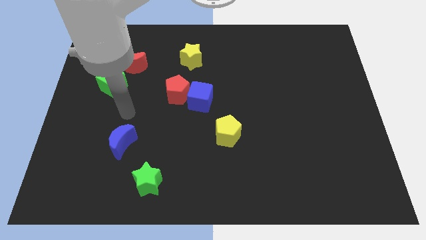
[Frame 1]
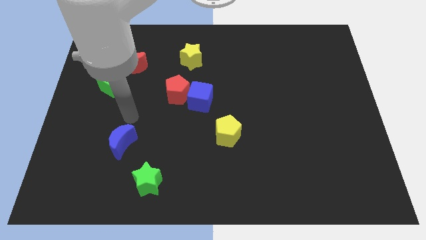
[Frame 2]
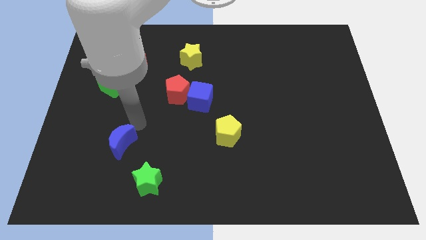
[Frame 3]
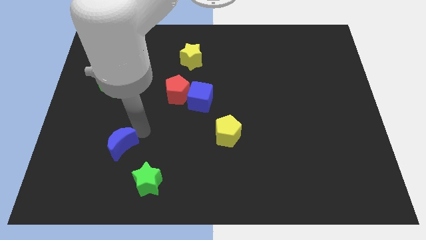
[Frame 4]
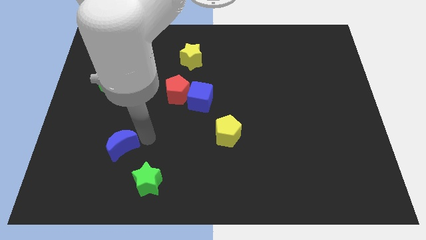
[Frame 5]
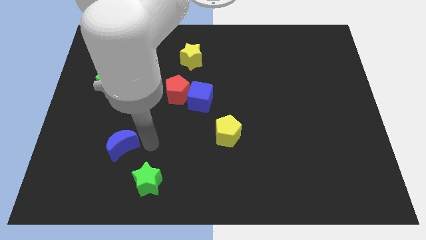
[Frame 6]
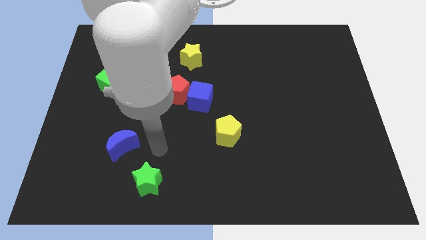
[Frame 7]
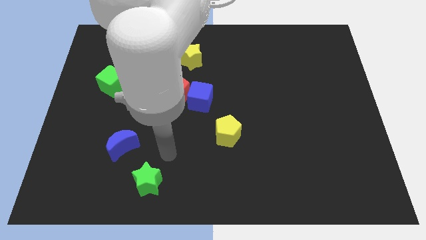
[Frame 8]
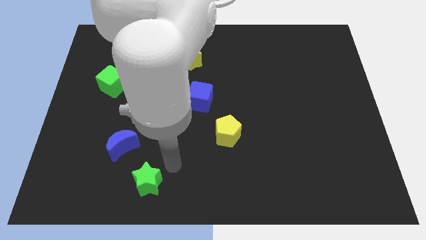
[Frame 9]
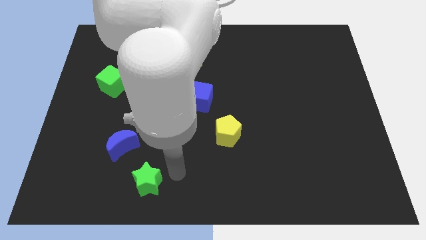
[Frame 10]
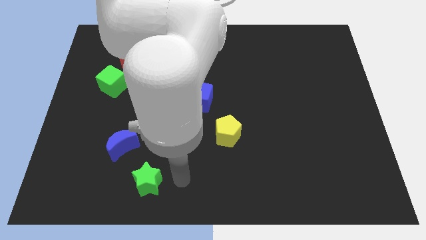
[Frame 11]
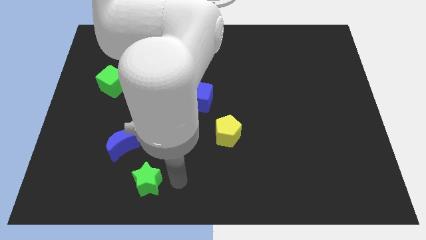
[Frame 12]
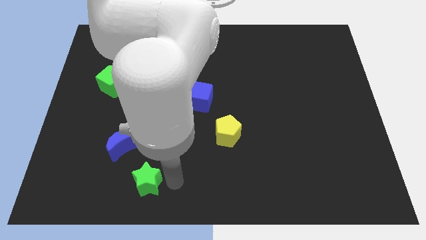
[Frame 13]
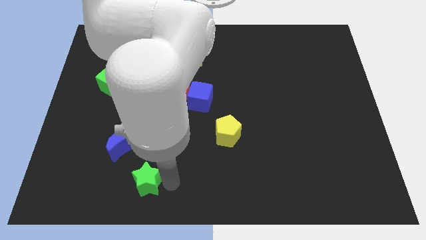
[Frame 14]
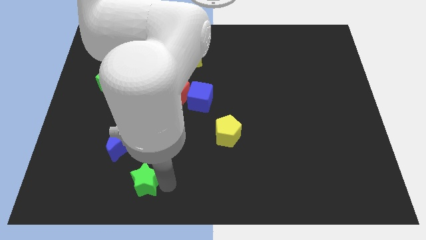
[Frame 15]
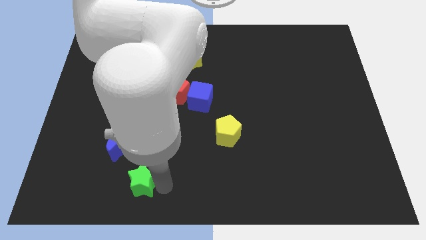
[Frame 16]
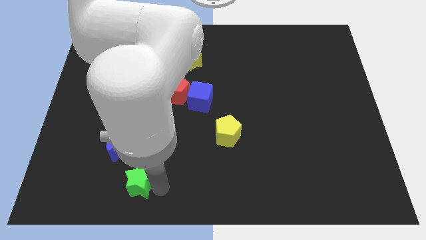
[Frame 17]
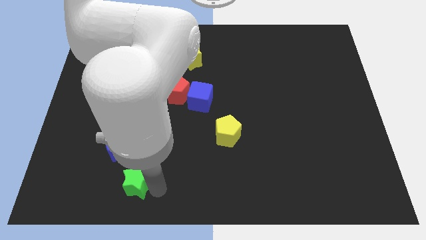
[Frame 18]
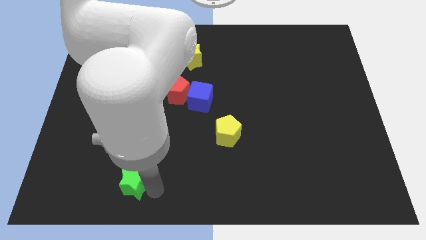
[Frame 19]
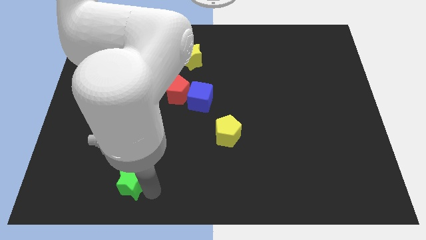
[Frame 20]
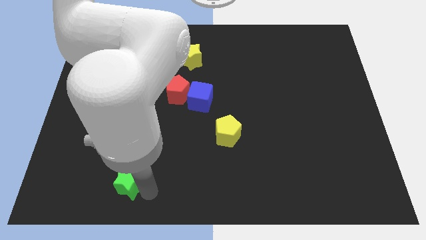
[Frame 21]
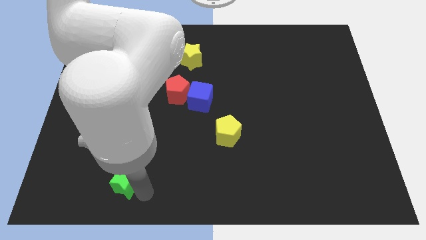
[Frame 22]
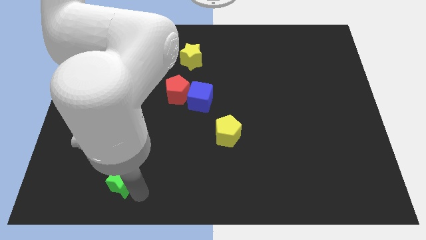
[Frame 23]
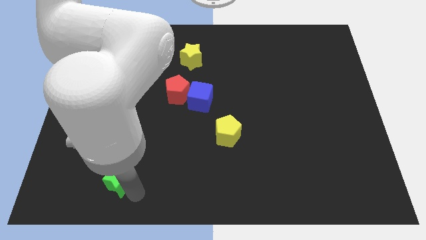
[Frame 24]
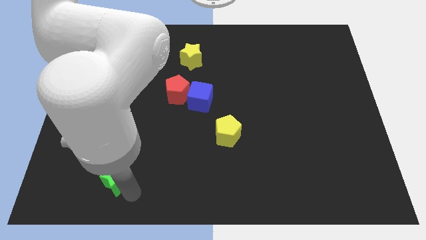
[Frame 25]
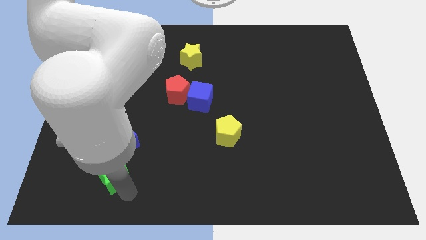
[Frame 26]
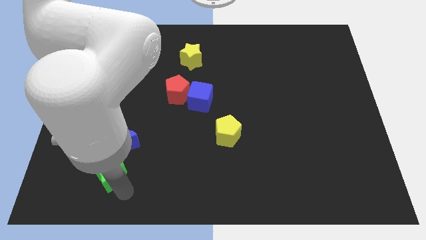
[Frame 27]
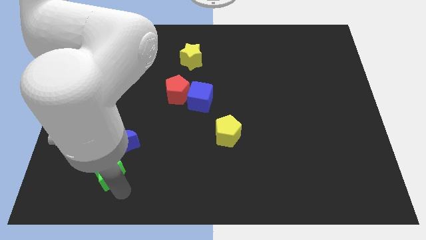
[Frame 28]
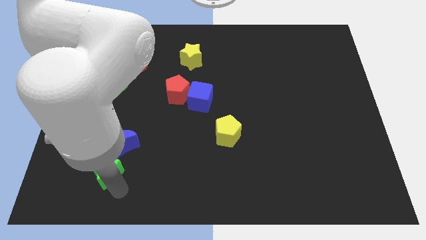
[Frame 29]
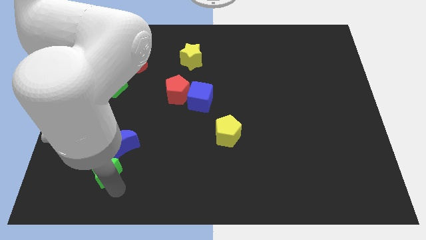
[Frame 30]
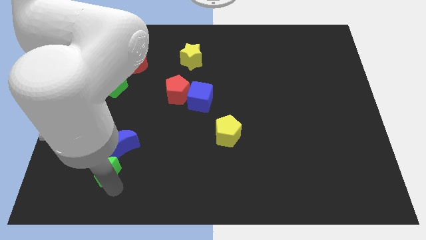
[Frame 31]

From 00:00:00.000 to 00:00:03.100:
slide the green star a little up and then to the left

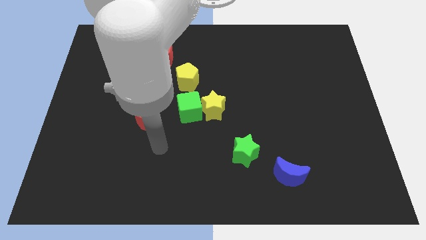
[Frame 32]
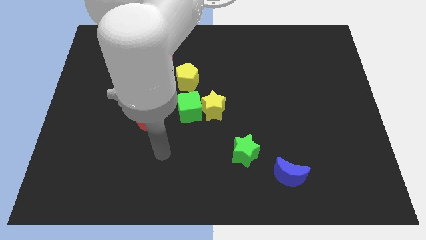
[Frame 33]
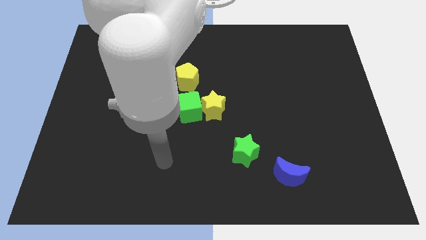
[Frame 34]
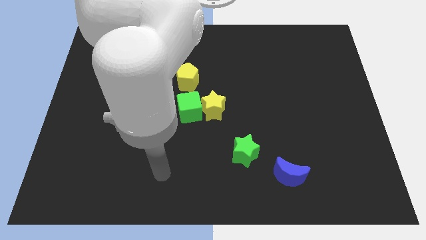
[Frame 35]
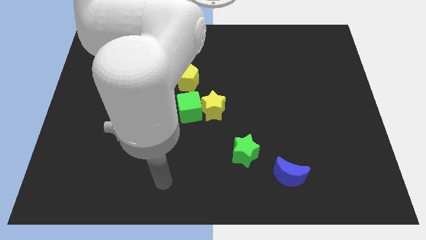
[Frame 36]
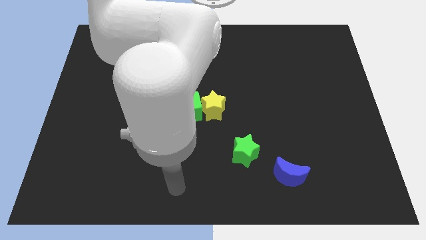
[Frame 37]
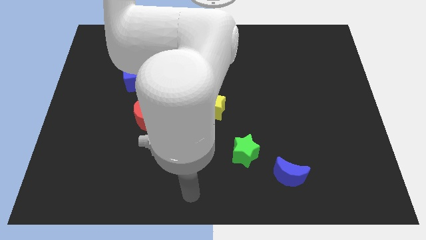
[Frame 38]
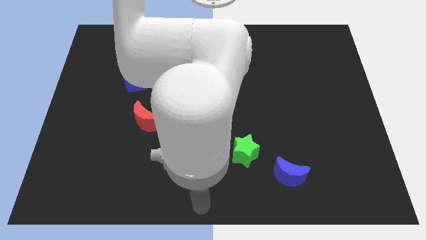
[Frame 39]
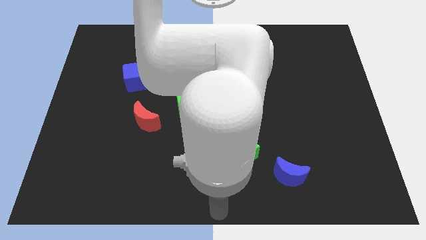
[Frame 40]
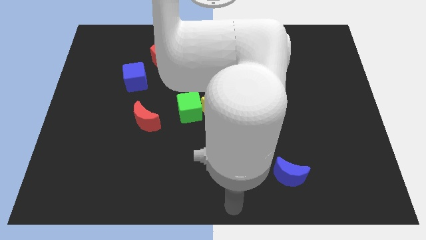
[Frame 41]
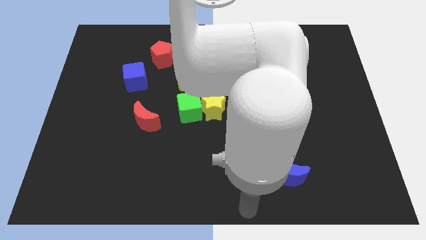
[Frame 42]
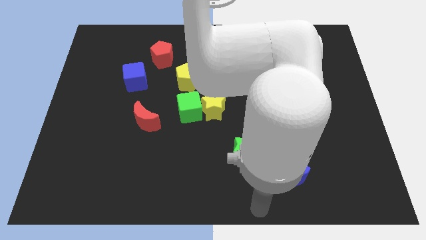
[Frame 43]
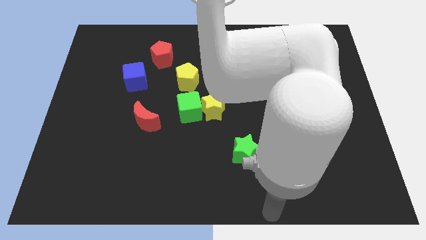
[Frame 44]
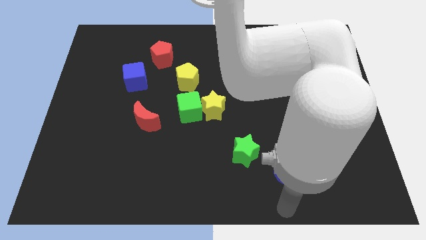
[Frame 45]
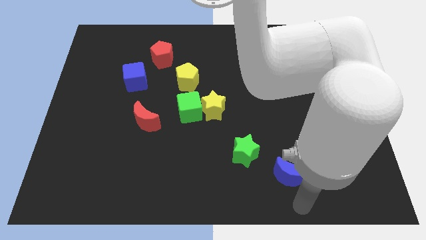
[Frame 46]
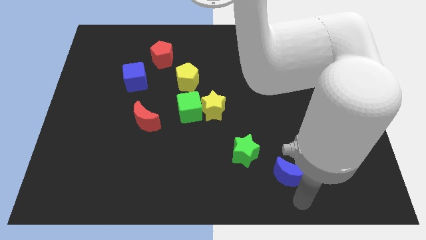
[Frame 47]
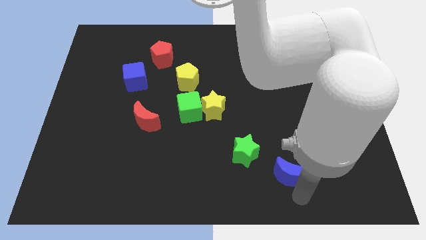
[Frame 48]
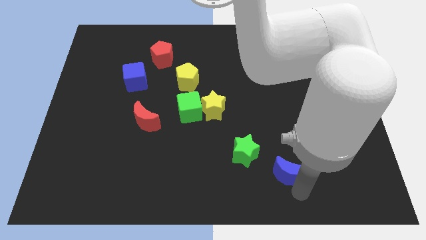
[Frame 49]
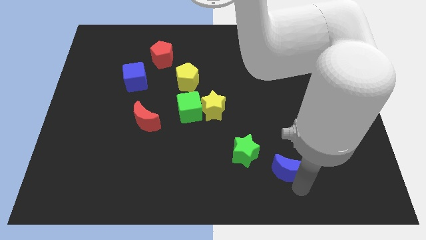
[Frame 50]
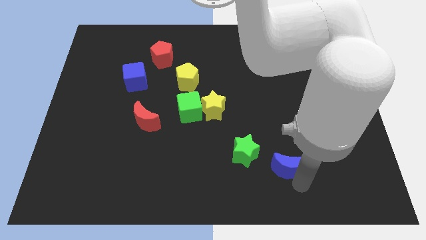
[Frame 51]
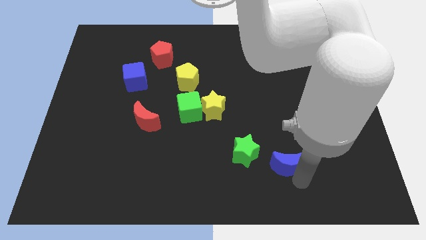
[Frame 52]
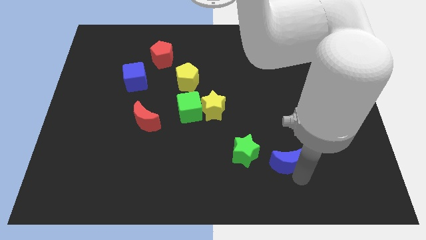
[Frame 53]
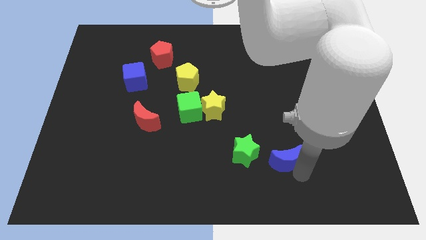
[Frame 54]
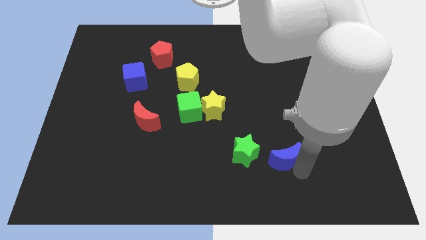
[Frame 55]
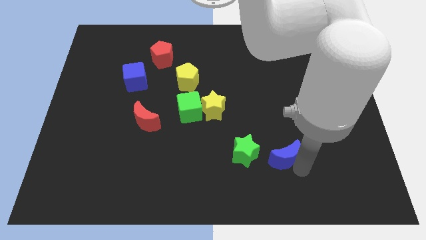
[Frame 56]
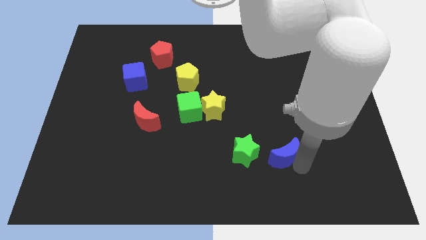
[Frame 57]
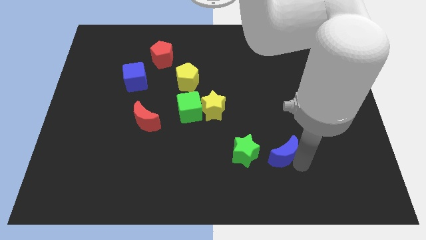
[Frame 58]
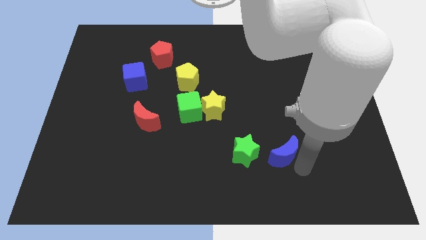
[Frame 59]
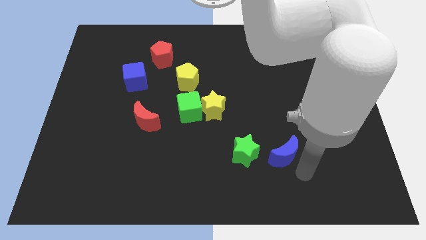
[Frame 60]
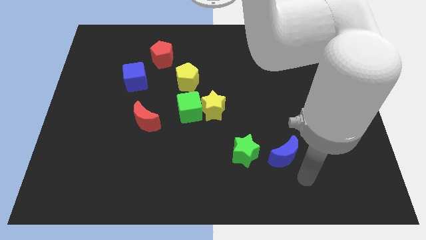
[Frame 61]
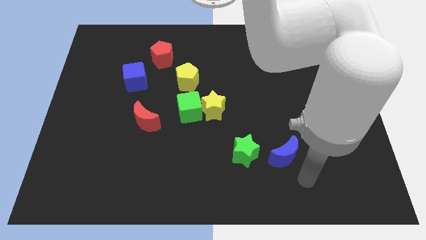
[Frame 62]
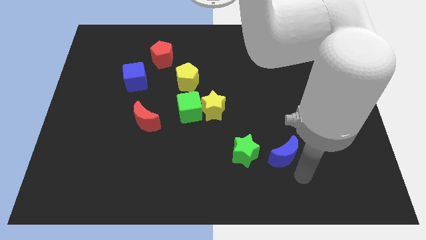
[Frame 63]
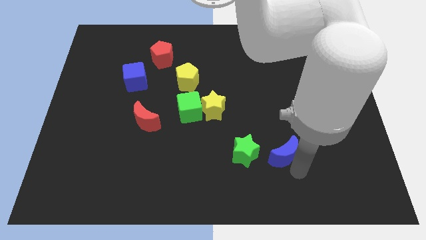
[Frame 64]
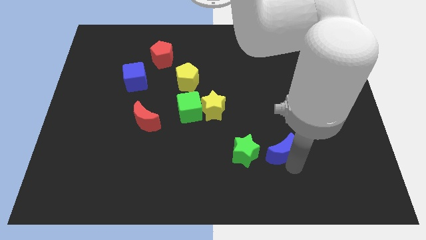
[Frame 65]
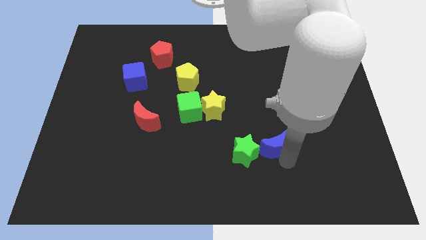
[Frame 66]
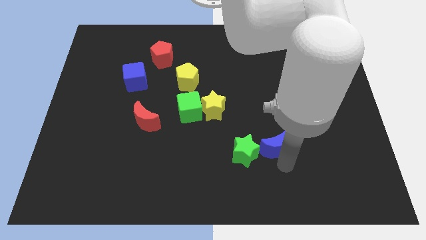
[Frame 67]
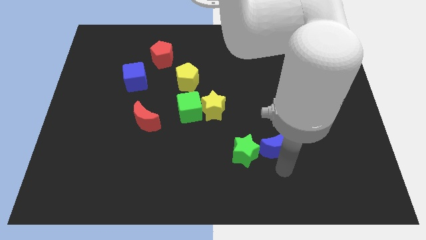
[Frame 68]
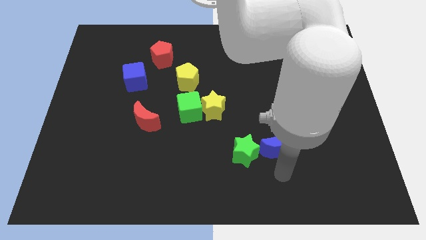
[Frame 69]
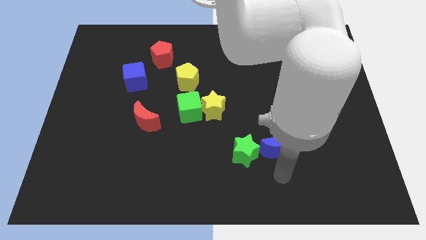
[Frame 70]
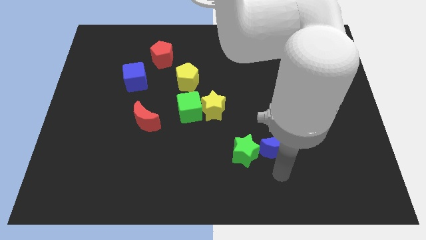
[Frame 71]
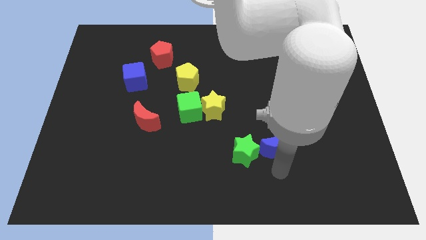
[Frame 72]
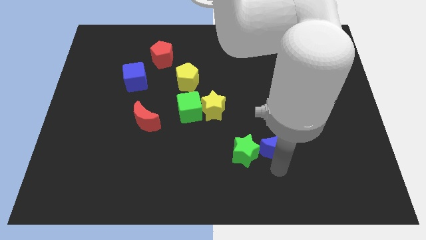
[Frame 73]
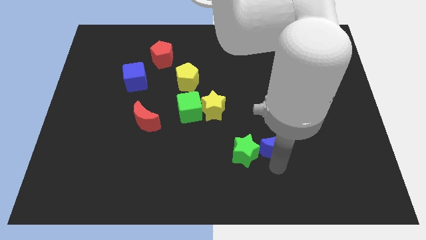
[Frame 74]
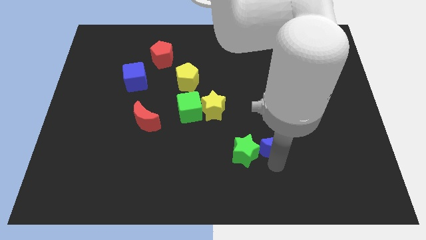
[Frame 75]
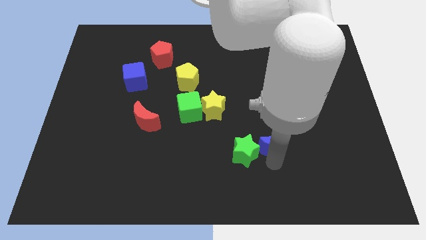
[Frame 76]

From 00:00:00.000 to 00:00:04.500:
slightly move the blue moon upwards

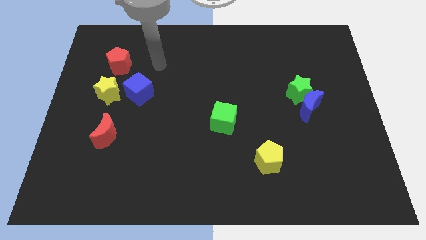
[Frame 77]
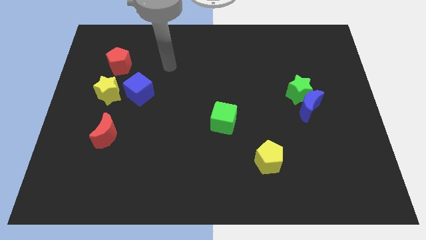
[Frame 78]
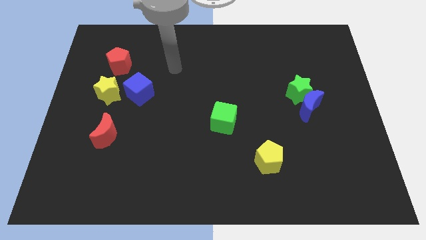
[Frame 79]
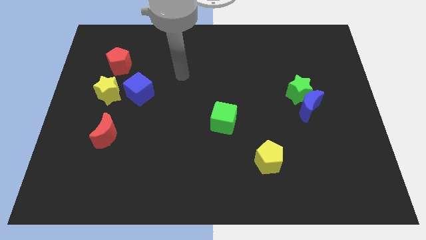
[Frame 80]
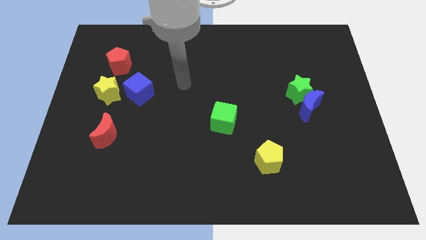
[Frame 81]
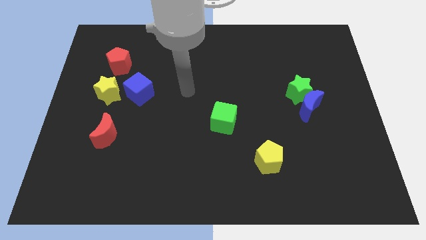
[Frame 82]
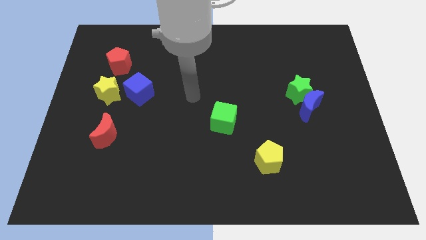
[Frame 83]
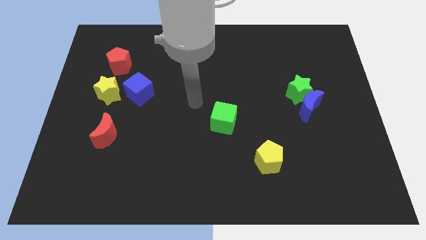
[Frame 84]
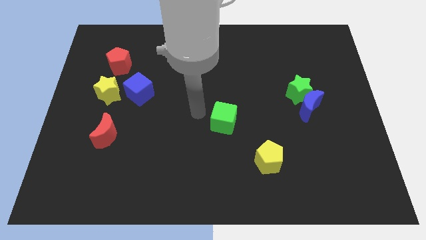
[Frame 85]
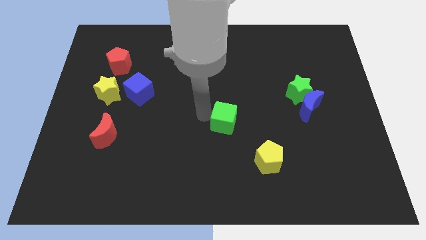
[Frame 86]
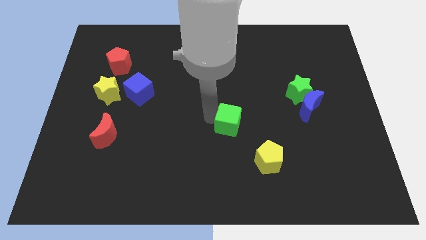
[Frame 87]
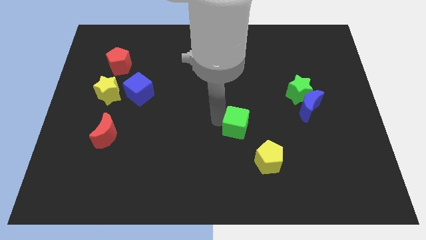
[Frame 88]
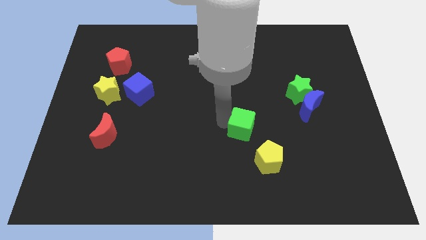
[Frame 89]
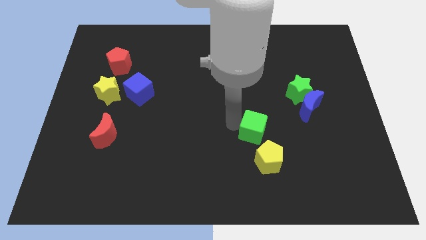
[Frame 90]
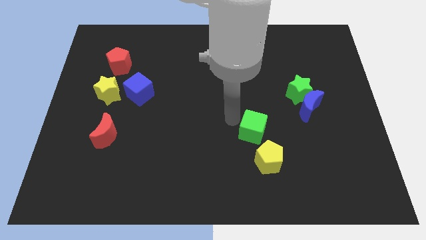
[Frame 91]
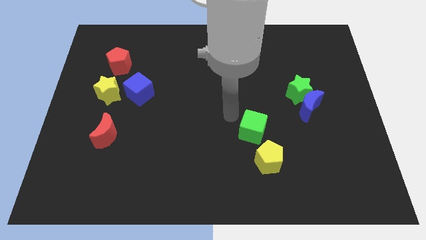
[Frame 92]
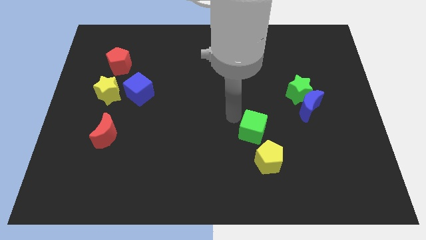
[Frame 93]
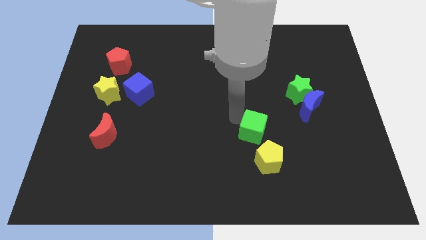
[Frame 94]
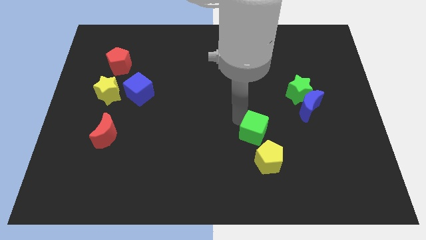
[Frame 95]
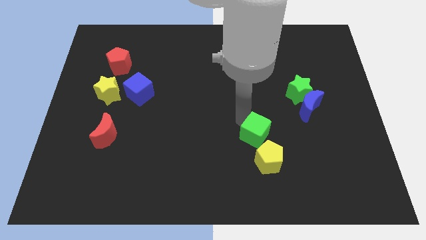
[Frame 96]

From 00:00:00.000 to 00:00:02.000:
move the green cube down and then to the right a little
